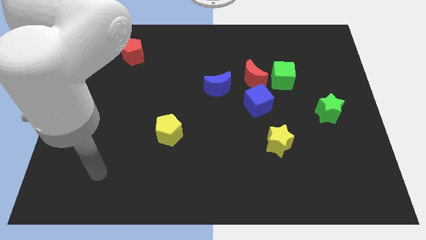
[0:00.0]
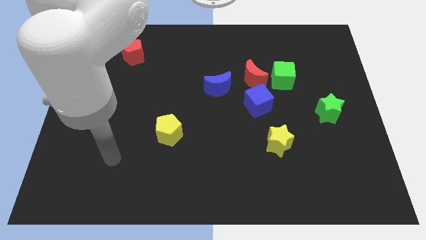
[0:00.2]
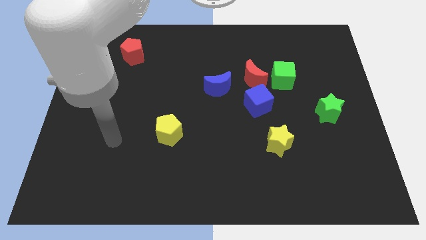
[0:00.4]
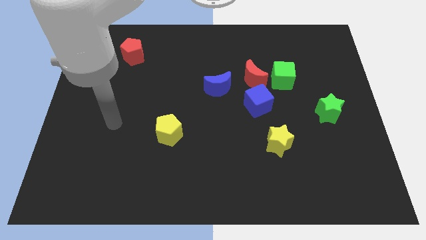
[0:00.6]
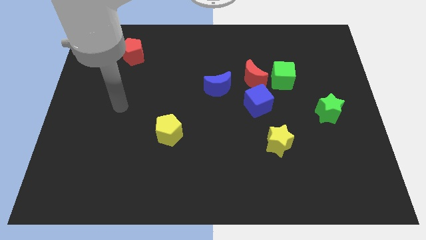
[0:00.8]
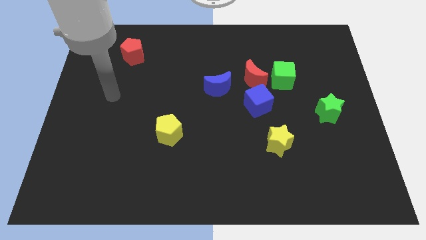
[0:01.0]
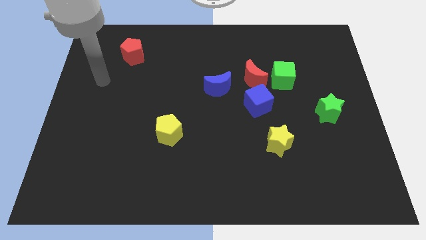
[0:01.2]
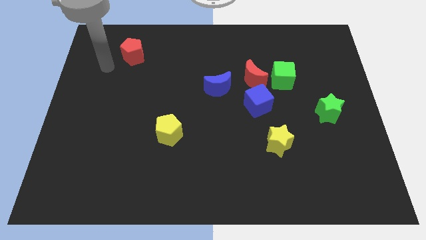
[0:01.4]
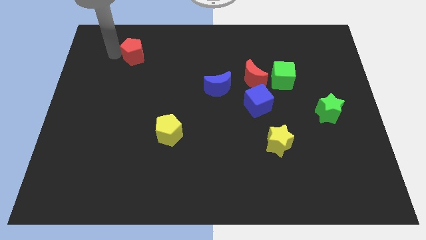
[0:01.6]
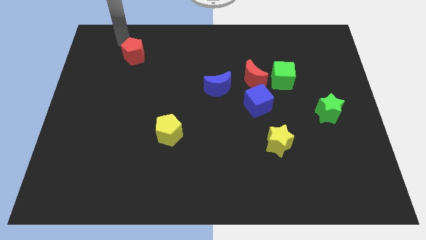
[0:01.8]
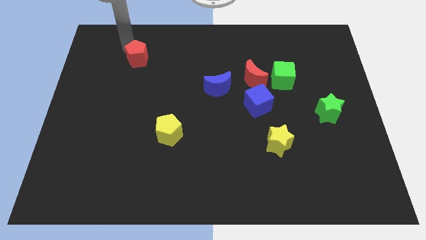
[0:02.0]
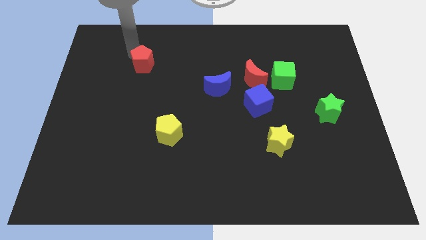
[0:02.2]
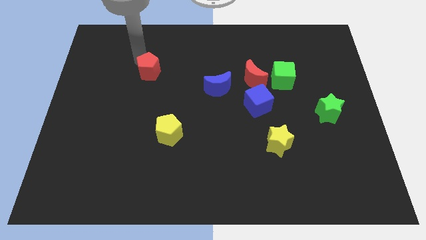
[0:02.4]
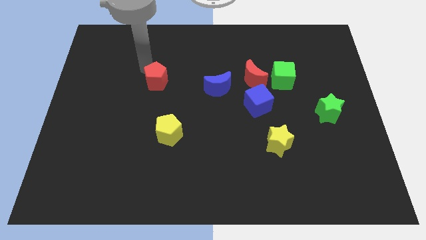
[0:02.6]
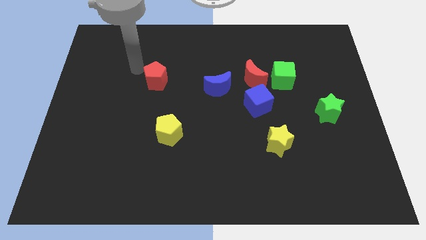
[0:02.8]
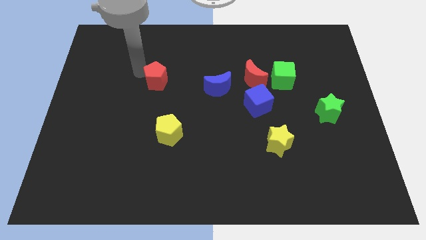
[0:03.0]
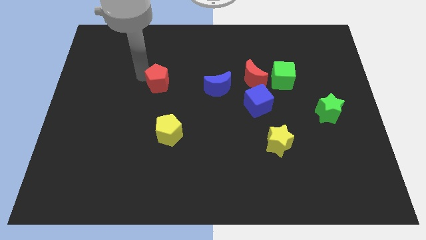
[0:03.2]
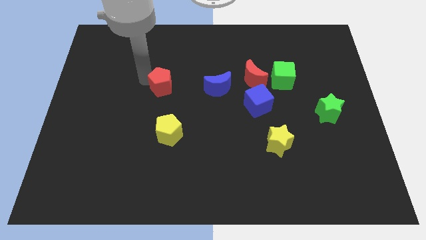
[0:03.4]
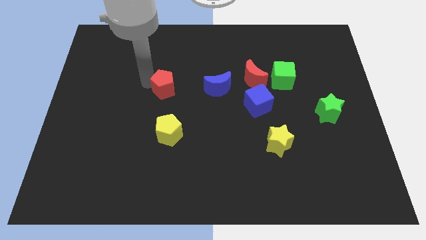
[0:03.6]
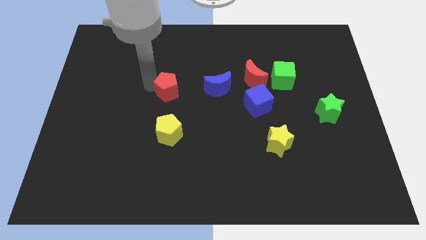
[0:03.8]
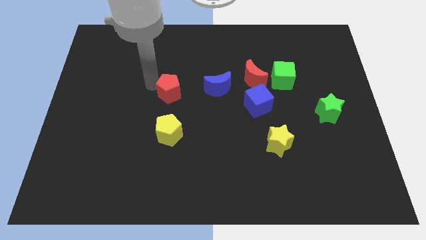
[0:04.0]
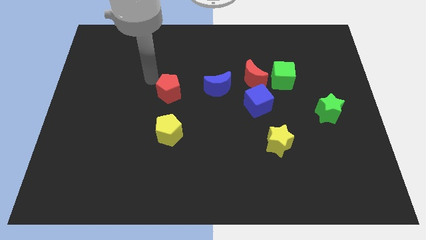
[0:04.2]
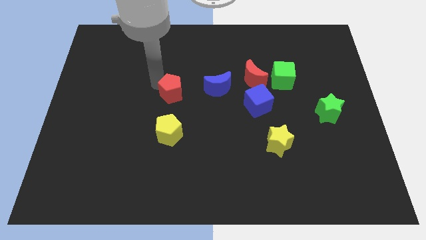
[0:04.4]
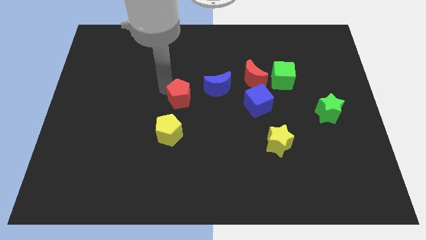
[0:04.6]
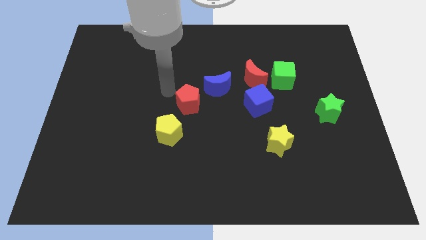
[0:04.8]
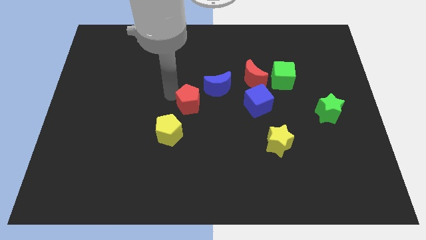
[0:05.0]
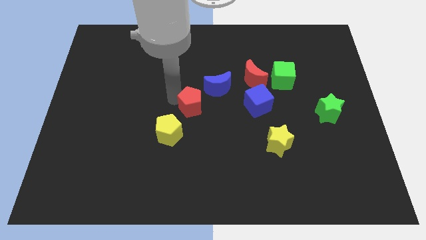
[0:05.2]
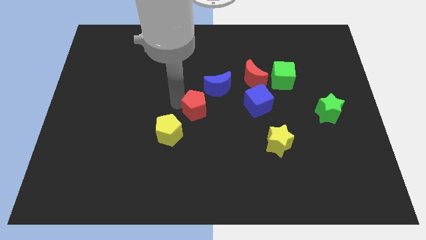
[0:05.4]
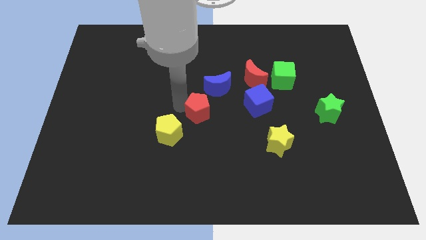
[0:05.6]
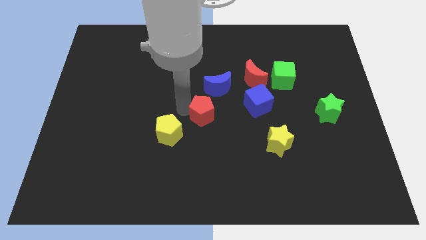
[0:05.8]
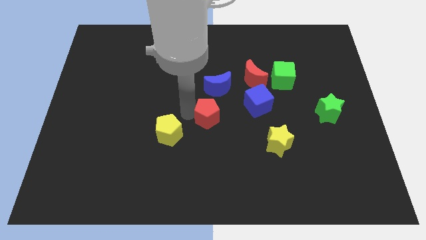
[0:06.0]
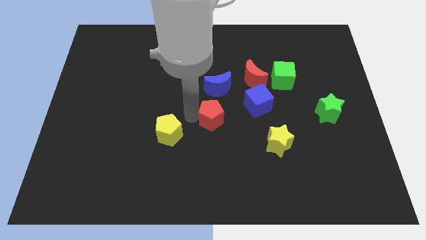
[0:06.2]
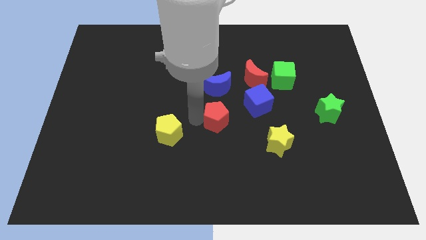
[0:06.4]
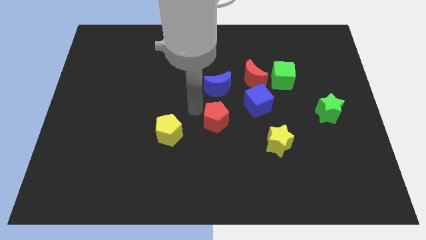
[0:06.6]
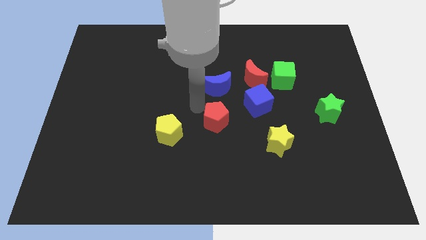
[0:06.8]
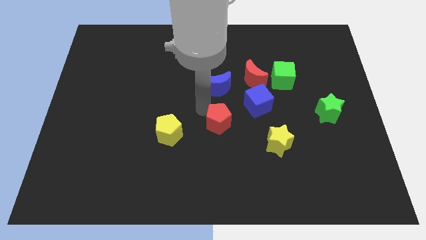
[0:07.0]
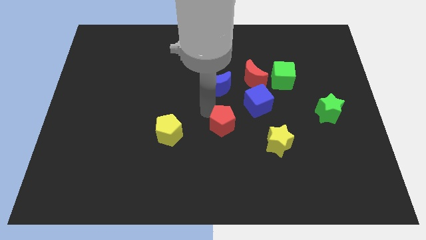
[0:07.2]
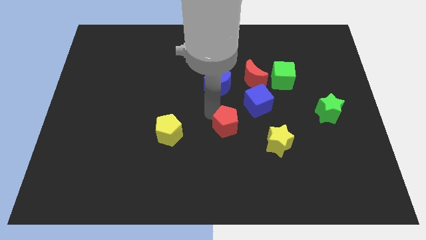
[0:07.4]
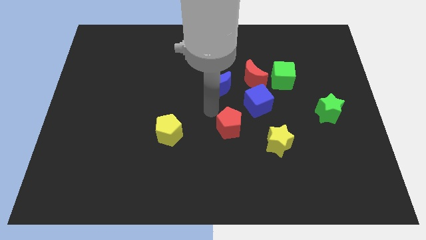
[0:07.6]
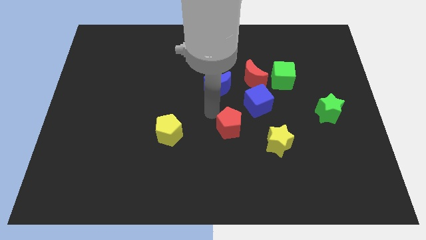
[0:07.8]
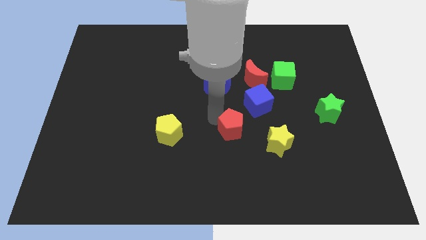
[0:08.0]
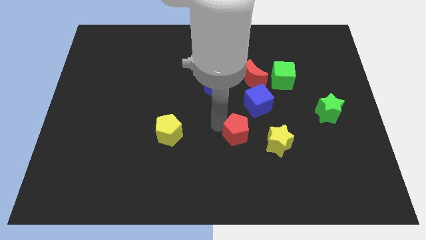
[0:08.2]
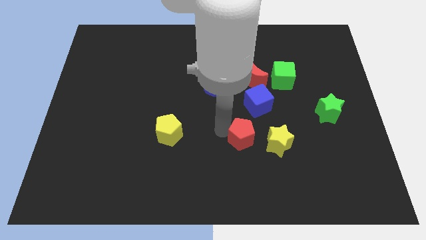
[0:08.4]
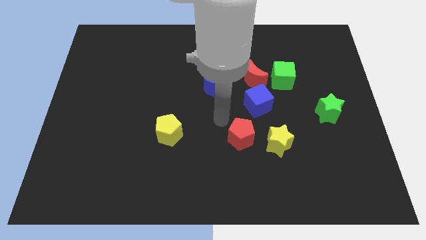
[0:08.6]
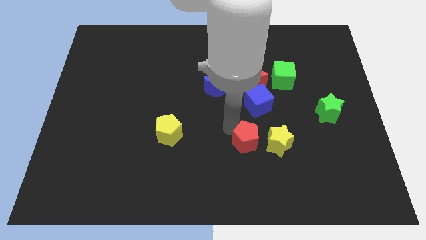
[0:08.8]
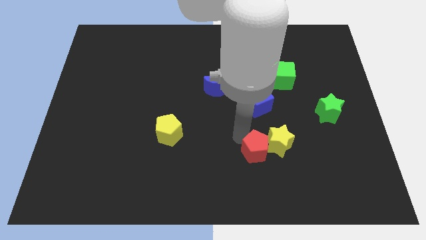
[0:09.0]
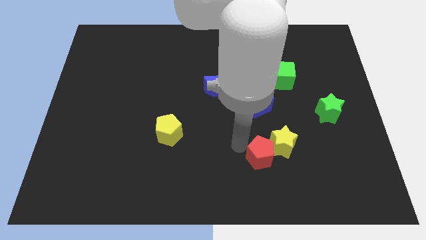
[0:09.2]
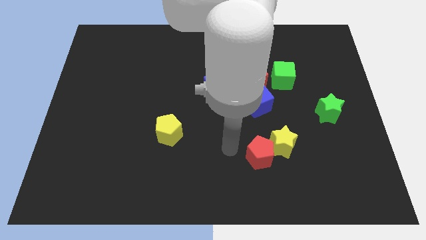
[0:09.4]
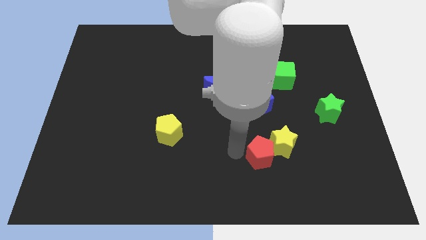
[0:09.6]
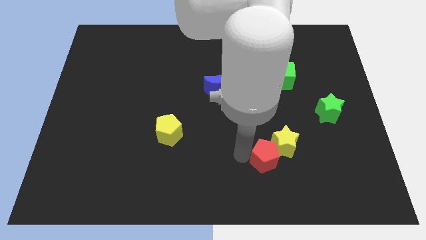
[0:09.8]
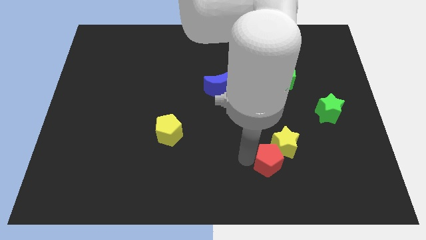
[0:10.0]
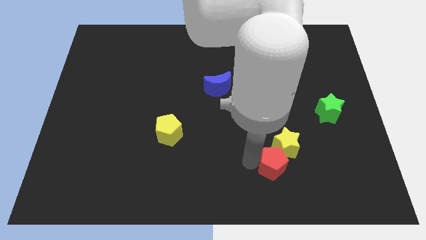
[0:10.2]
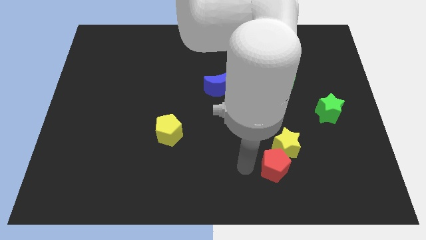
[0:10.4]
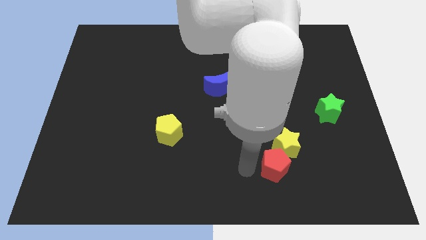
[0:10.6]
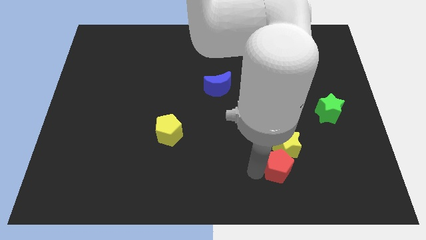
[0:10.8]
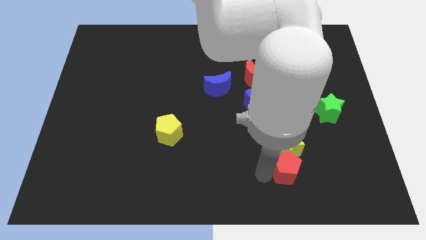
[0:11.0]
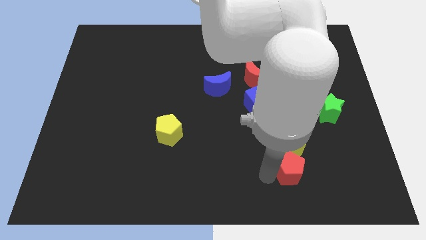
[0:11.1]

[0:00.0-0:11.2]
push the red pentagon diagonally down and to the right of the yellow star

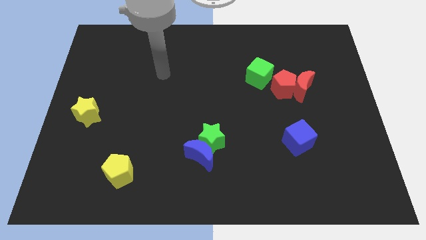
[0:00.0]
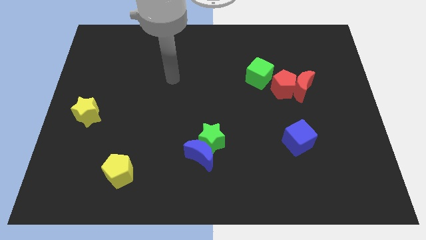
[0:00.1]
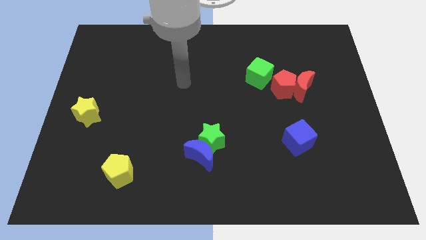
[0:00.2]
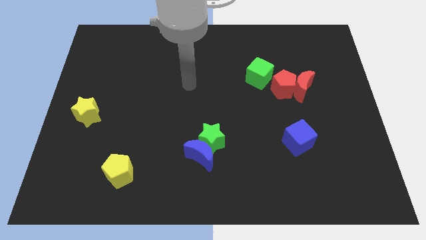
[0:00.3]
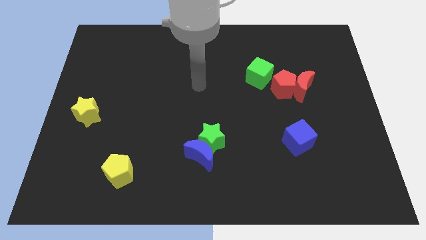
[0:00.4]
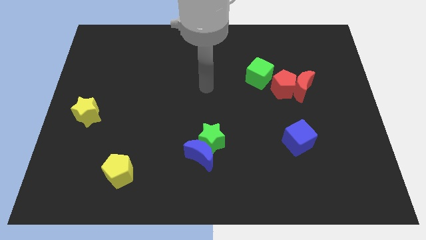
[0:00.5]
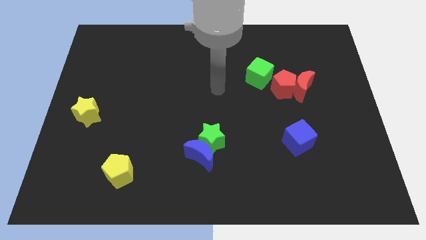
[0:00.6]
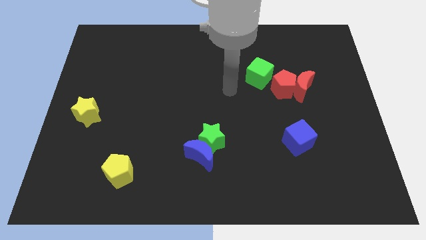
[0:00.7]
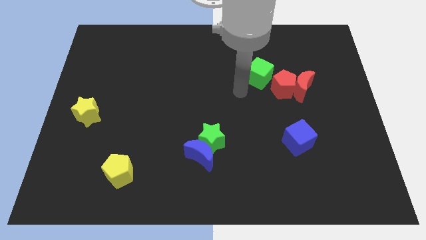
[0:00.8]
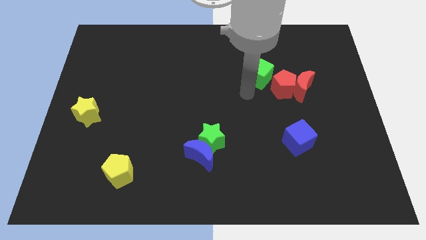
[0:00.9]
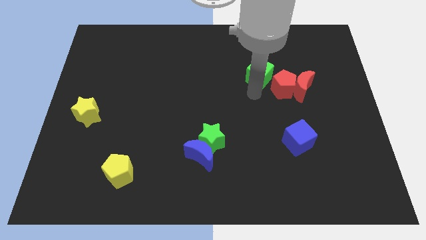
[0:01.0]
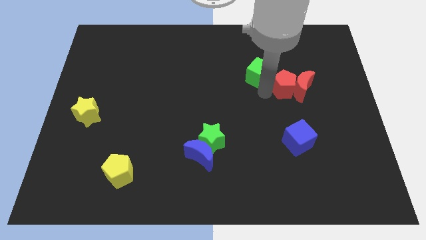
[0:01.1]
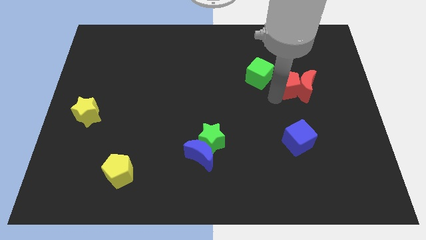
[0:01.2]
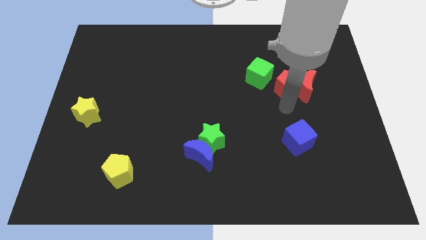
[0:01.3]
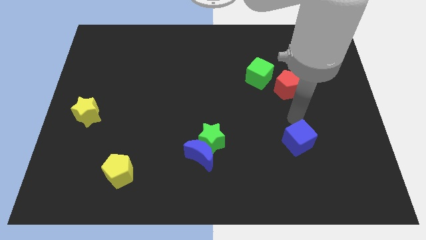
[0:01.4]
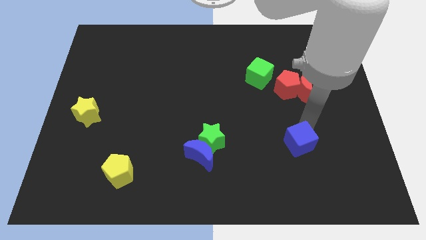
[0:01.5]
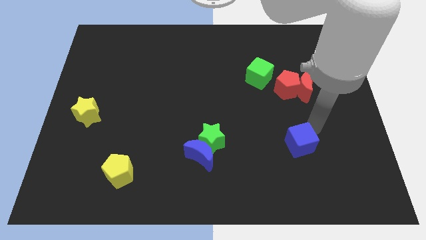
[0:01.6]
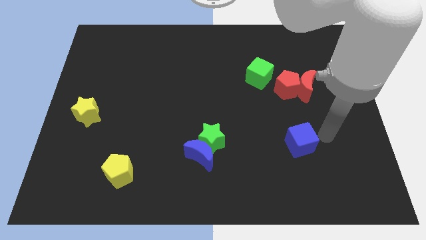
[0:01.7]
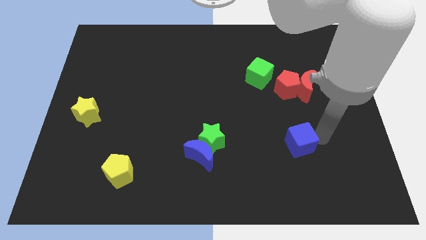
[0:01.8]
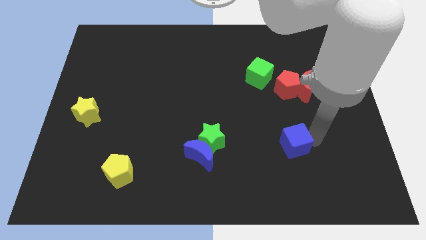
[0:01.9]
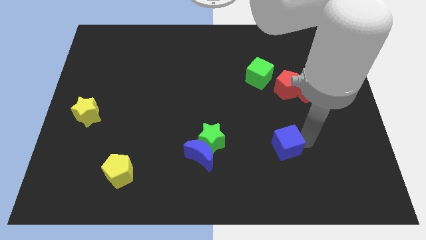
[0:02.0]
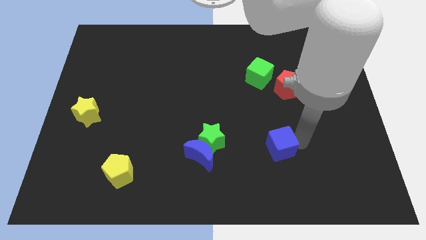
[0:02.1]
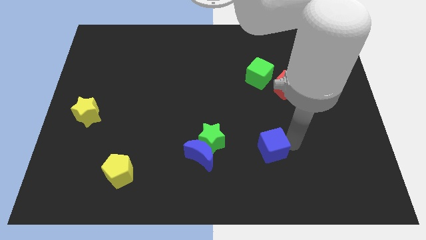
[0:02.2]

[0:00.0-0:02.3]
put the blue cube right of the blue moon
